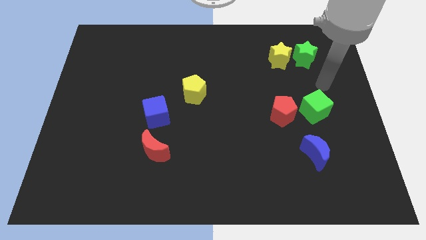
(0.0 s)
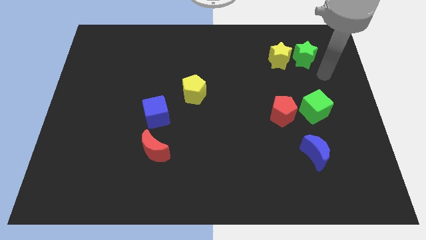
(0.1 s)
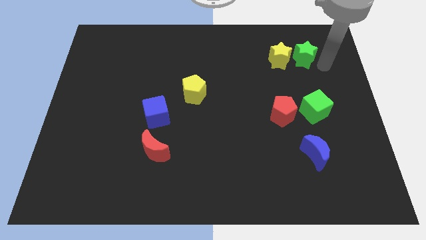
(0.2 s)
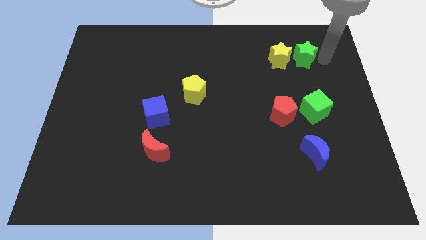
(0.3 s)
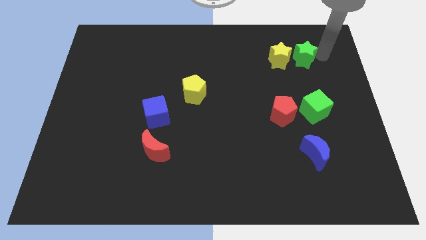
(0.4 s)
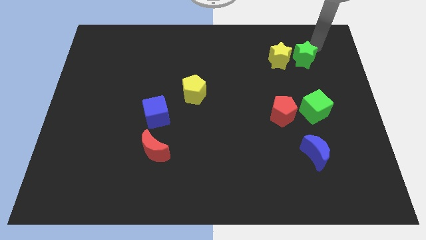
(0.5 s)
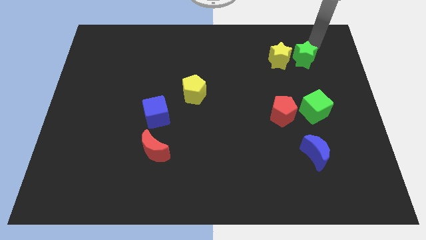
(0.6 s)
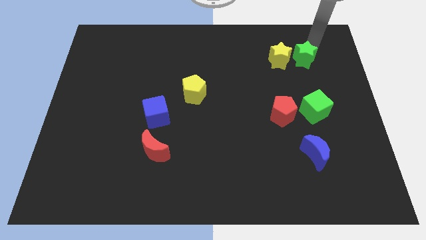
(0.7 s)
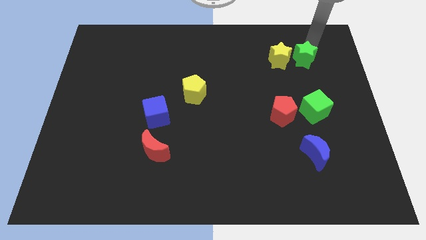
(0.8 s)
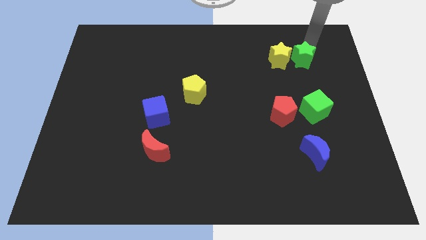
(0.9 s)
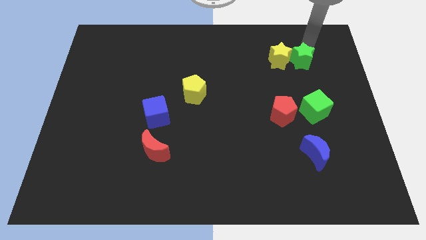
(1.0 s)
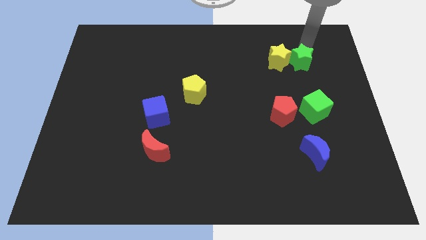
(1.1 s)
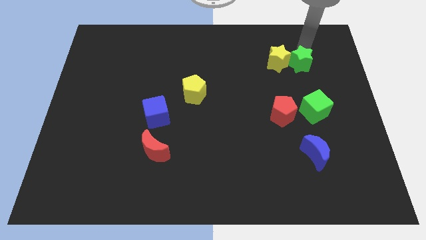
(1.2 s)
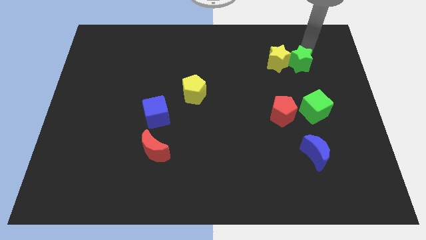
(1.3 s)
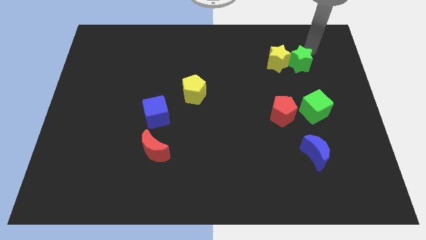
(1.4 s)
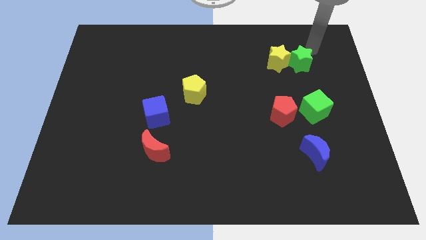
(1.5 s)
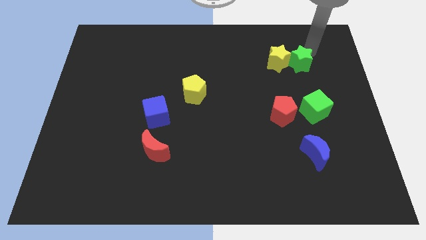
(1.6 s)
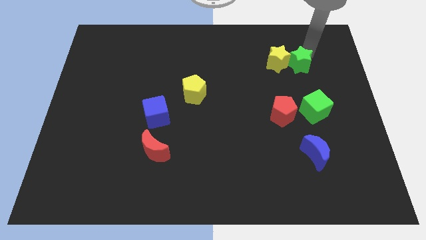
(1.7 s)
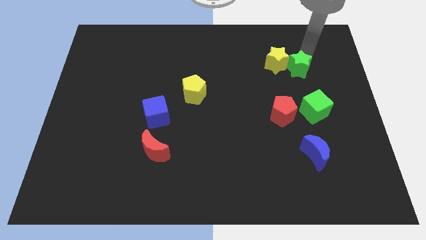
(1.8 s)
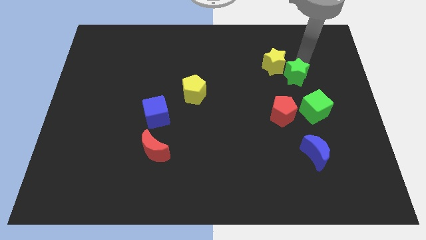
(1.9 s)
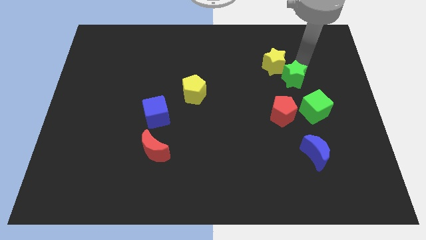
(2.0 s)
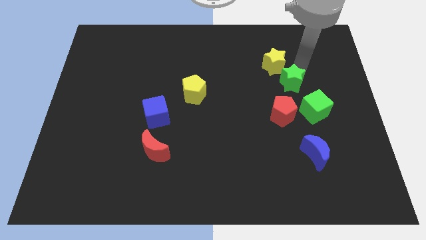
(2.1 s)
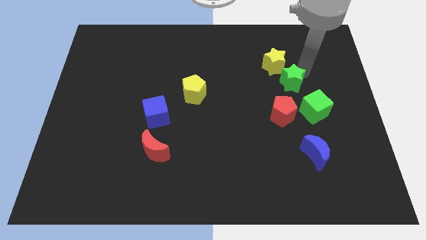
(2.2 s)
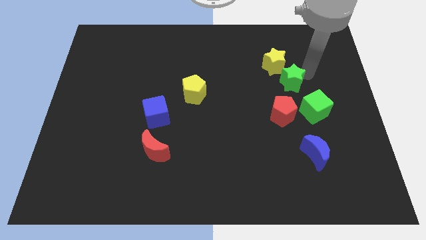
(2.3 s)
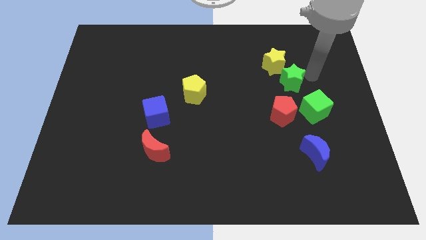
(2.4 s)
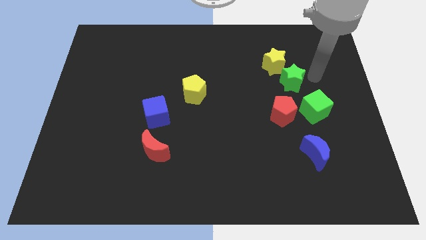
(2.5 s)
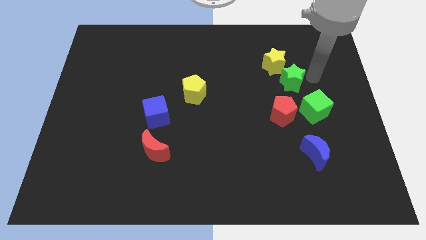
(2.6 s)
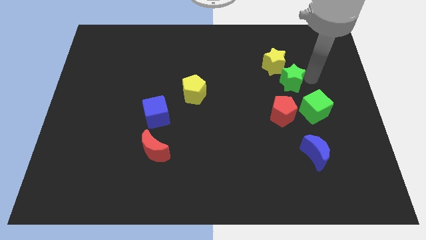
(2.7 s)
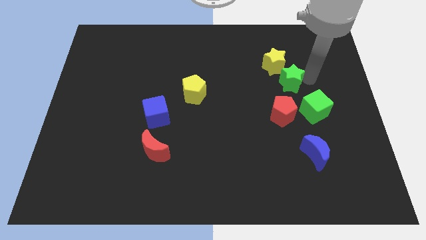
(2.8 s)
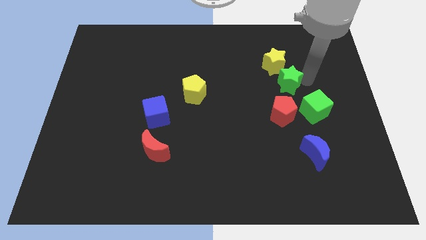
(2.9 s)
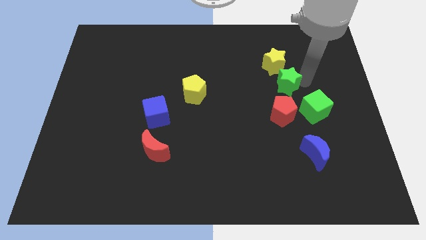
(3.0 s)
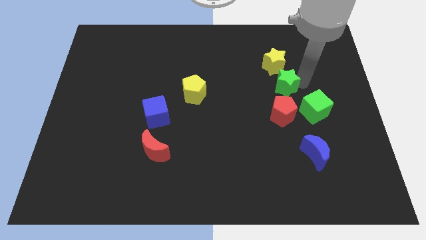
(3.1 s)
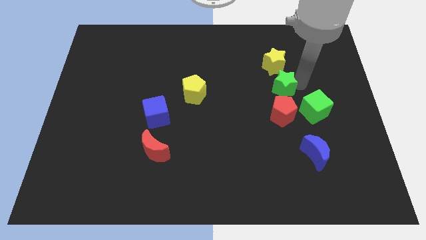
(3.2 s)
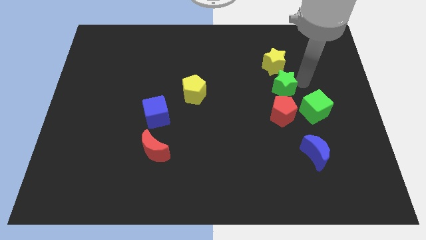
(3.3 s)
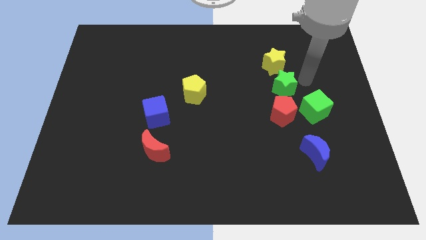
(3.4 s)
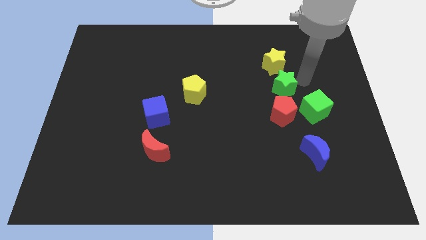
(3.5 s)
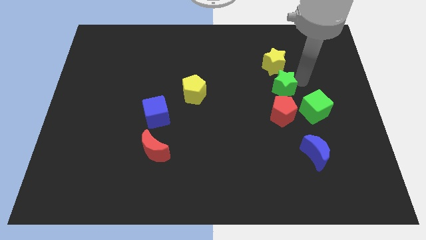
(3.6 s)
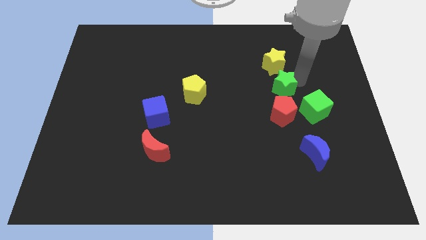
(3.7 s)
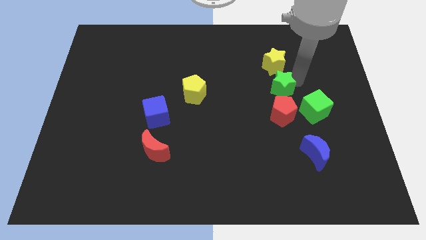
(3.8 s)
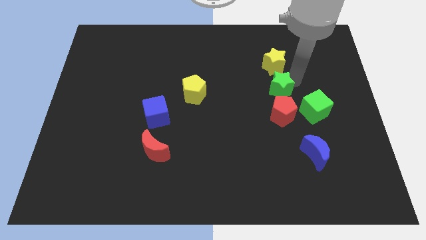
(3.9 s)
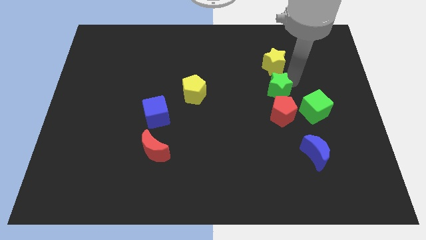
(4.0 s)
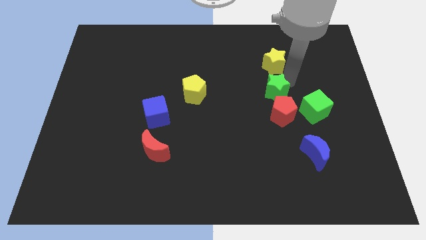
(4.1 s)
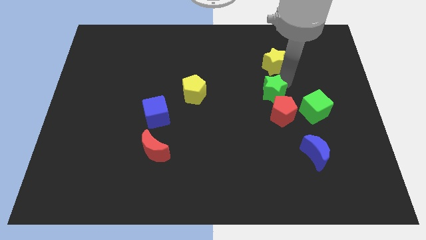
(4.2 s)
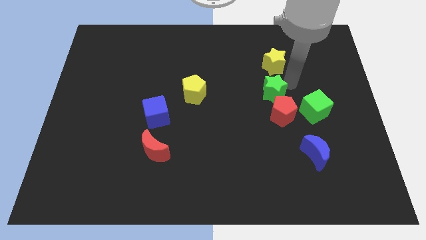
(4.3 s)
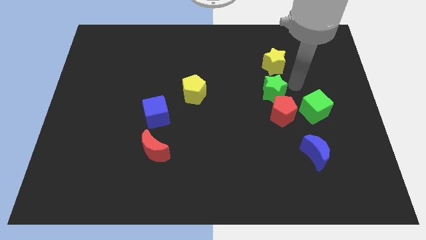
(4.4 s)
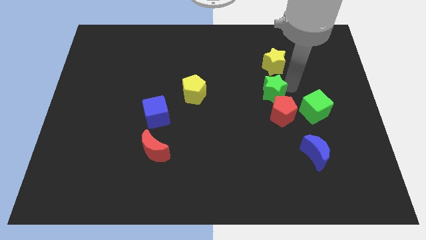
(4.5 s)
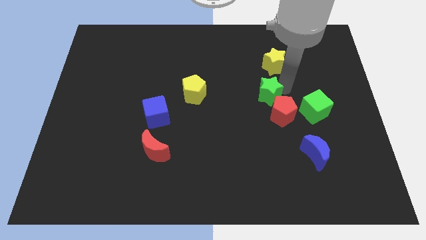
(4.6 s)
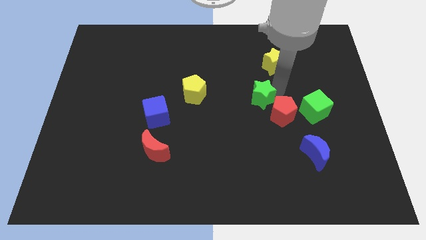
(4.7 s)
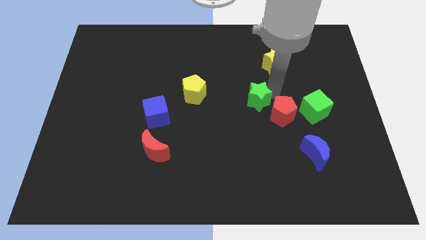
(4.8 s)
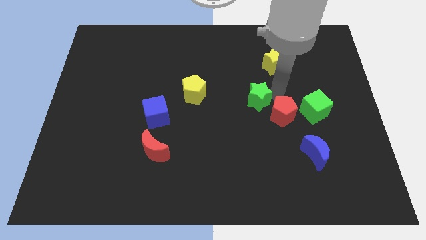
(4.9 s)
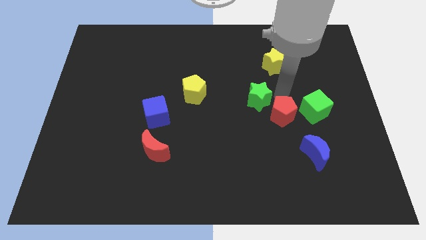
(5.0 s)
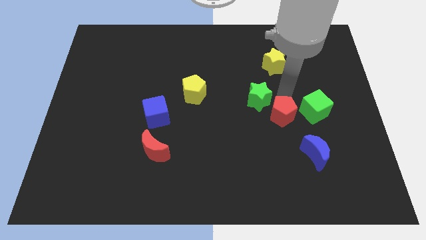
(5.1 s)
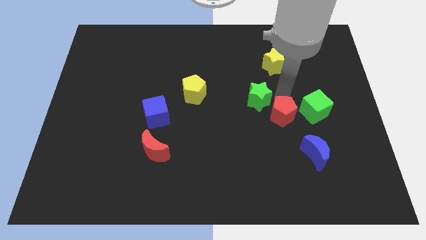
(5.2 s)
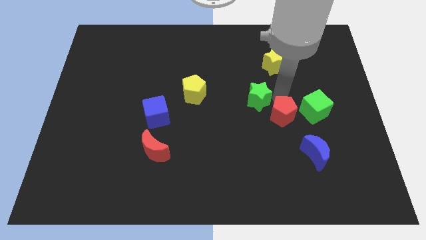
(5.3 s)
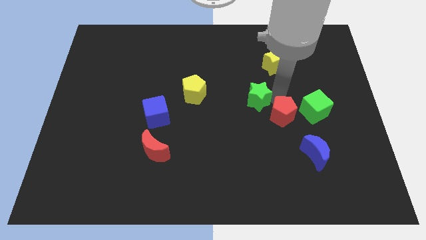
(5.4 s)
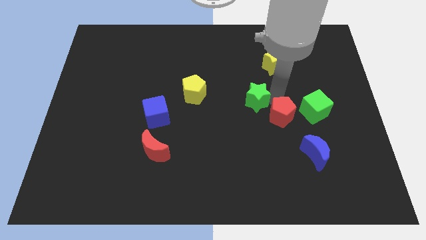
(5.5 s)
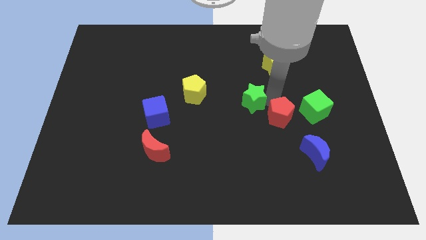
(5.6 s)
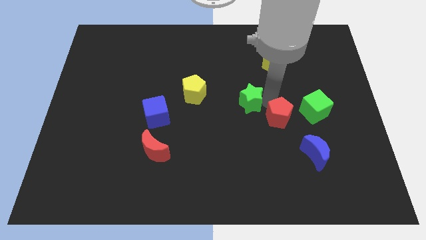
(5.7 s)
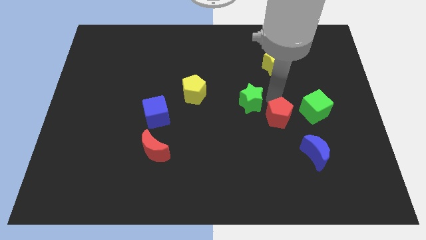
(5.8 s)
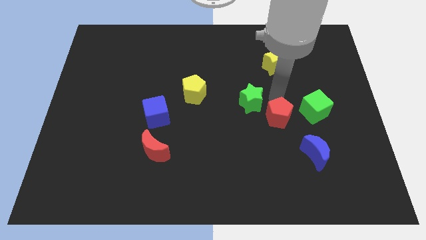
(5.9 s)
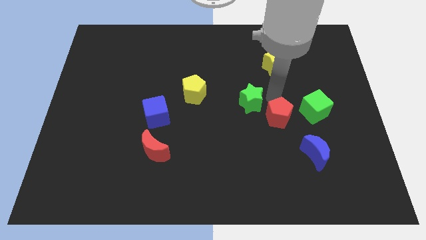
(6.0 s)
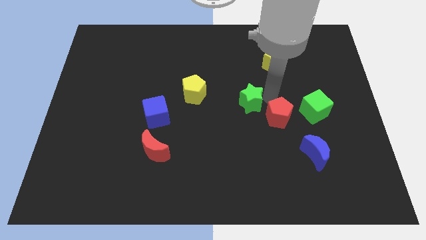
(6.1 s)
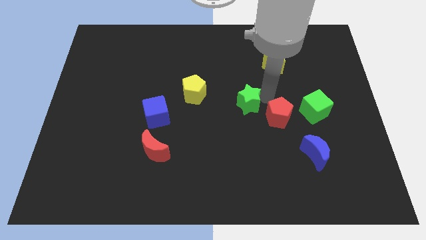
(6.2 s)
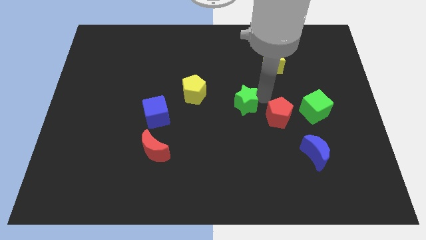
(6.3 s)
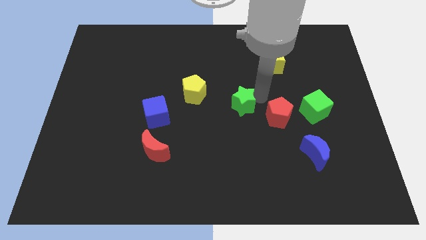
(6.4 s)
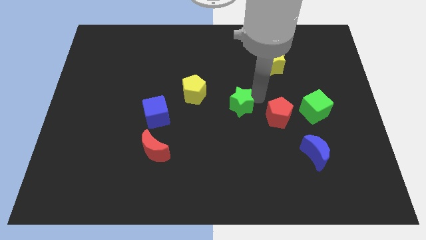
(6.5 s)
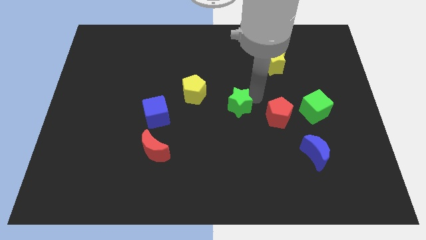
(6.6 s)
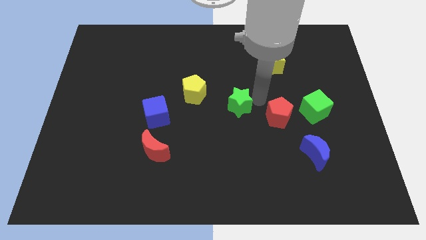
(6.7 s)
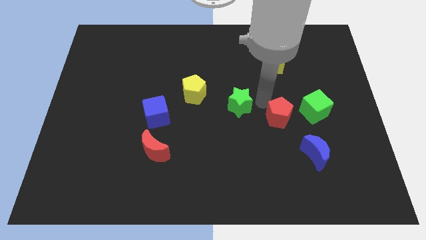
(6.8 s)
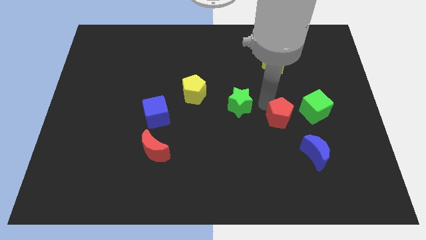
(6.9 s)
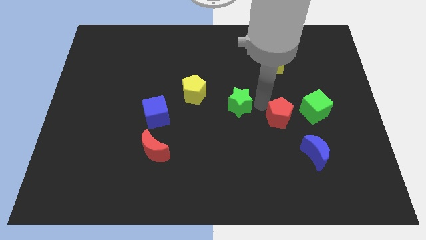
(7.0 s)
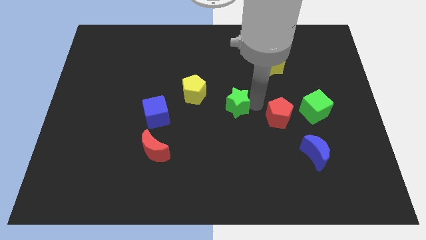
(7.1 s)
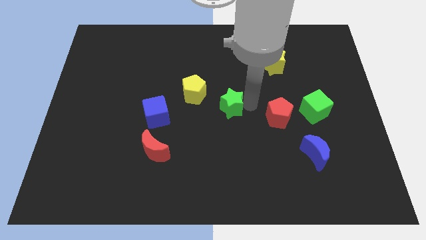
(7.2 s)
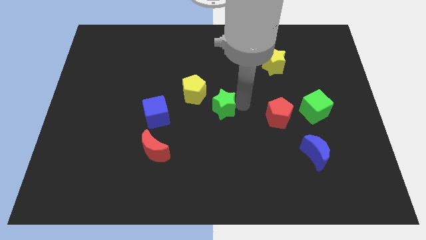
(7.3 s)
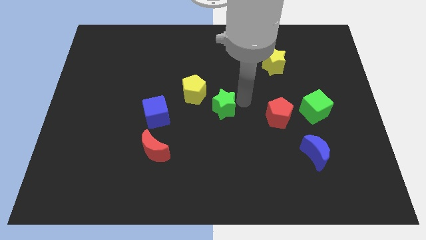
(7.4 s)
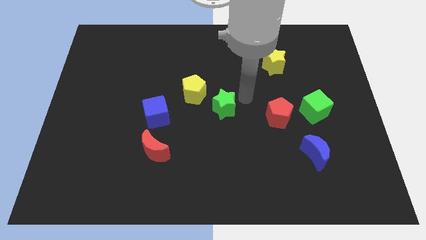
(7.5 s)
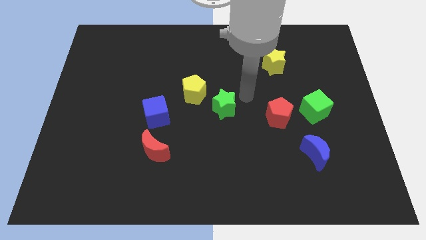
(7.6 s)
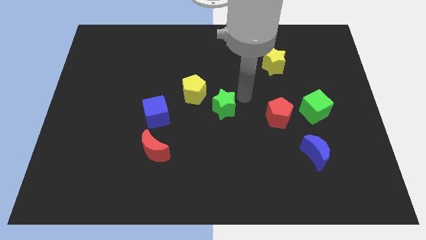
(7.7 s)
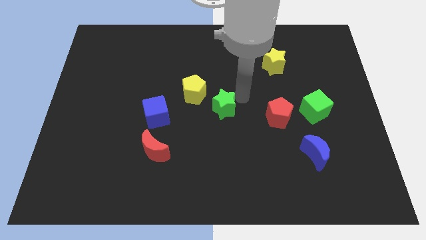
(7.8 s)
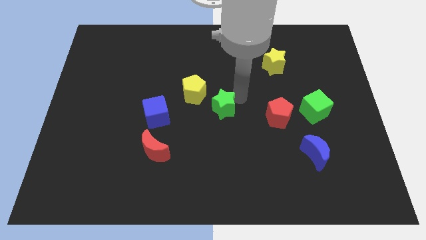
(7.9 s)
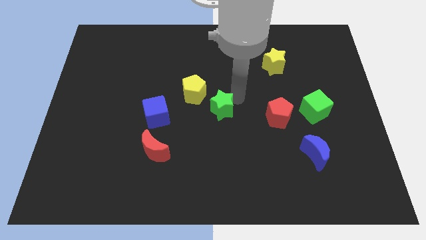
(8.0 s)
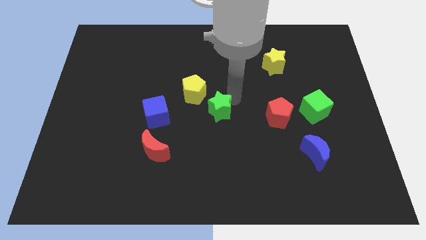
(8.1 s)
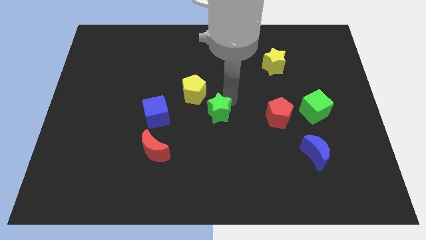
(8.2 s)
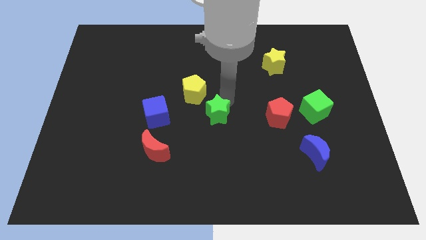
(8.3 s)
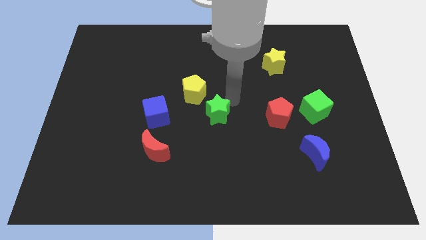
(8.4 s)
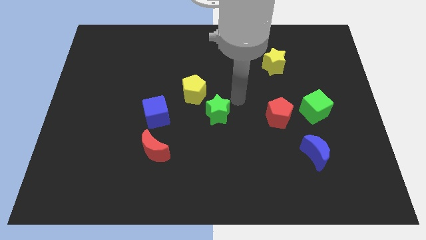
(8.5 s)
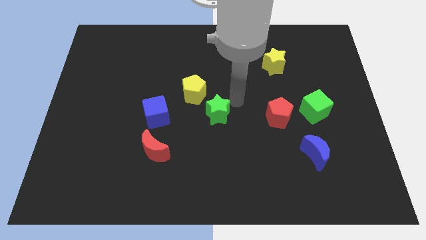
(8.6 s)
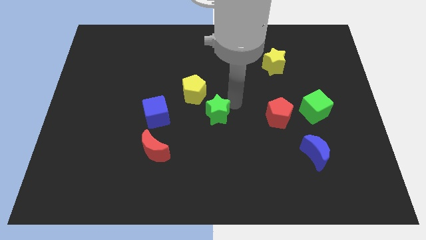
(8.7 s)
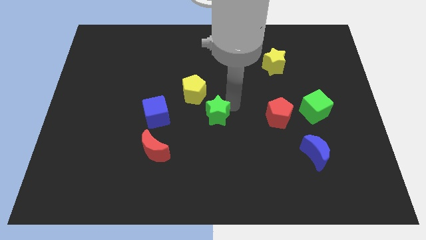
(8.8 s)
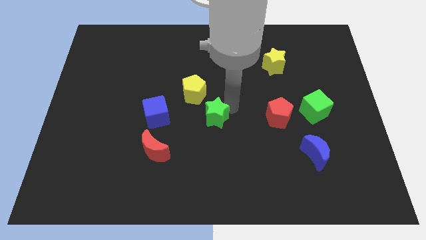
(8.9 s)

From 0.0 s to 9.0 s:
put the green star below the yellow pentagon
